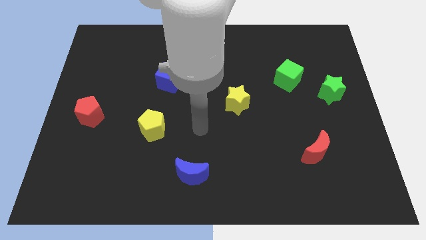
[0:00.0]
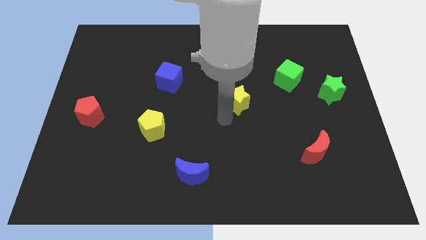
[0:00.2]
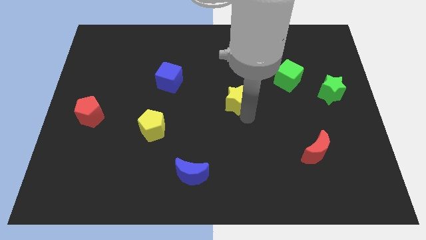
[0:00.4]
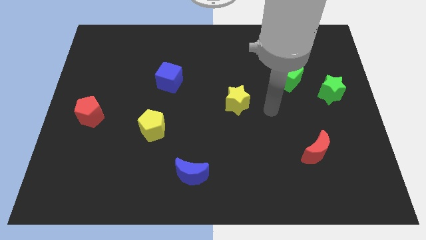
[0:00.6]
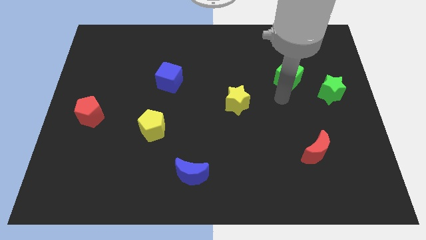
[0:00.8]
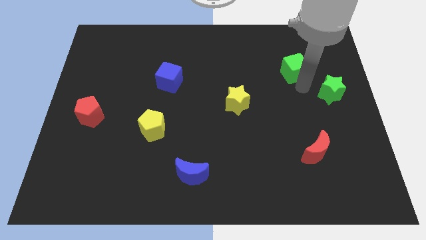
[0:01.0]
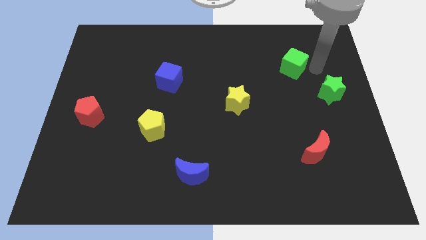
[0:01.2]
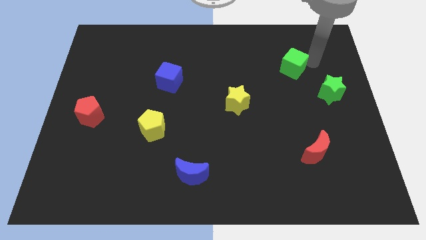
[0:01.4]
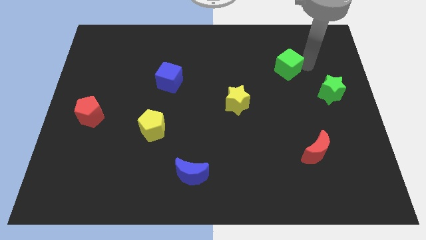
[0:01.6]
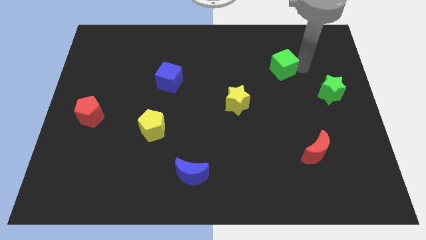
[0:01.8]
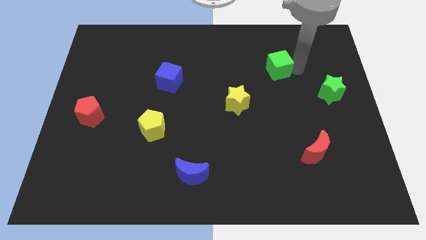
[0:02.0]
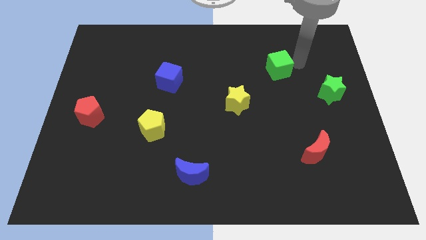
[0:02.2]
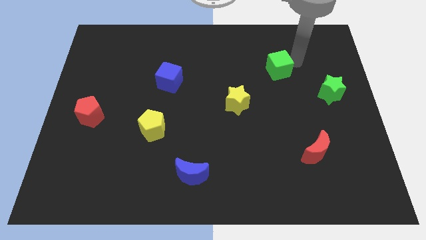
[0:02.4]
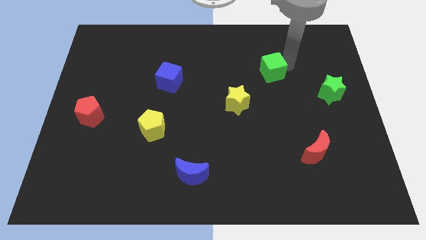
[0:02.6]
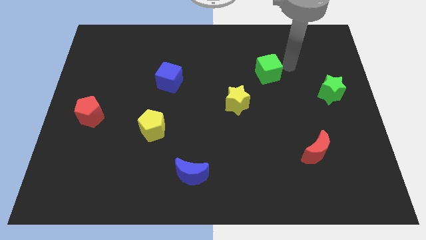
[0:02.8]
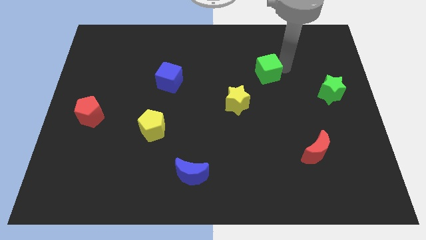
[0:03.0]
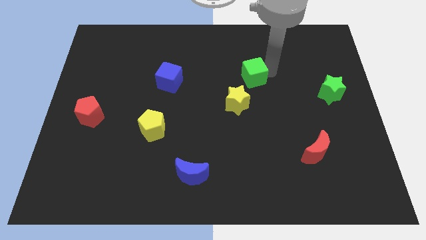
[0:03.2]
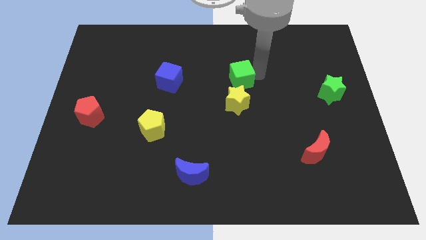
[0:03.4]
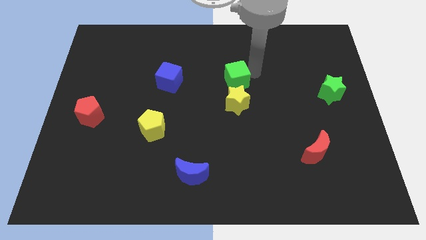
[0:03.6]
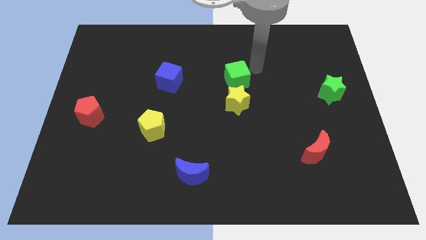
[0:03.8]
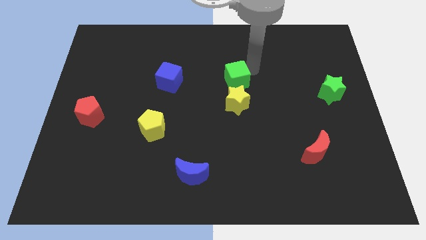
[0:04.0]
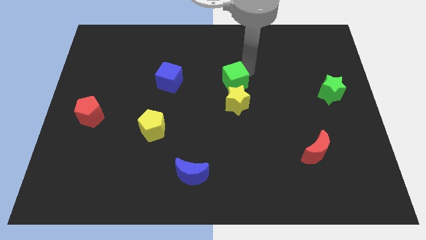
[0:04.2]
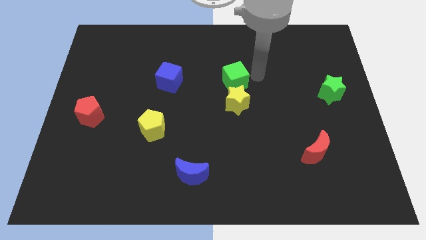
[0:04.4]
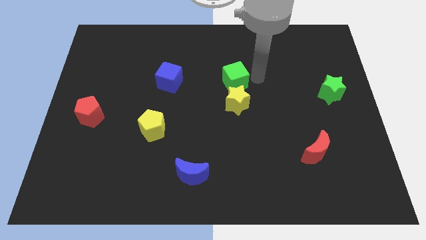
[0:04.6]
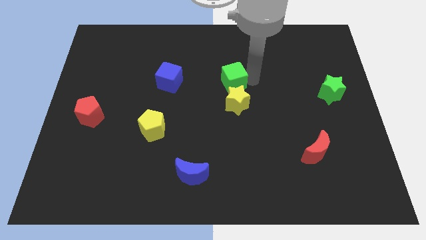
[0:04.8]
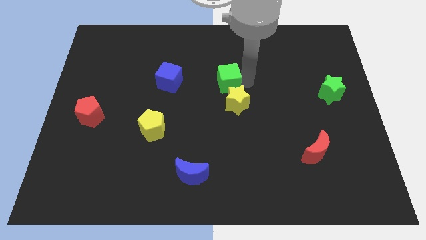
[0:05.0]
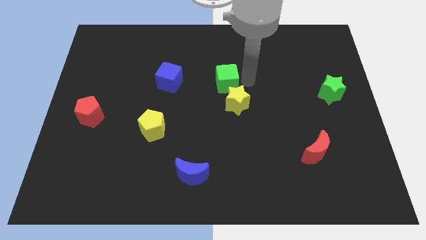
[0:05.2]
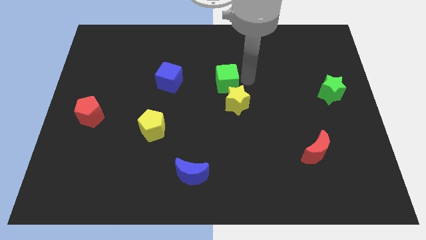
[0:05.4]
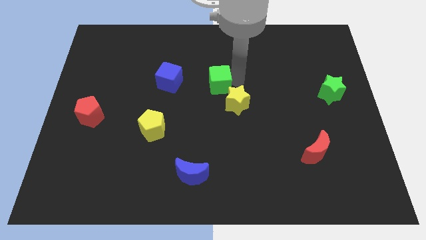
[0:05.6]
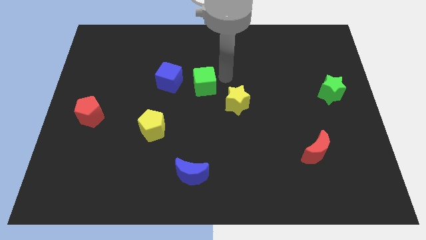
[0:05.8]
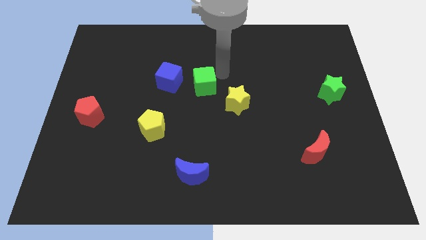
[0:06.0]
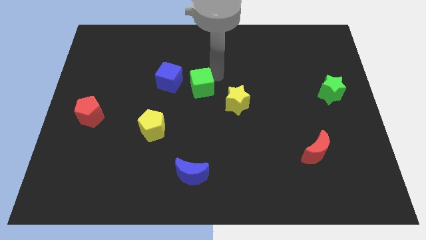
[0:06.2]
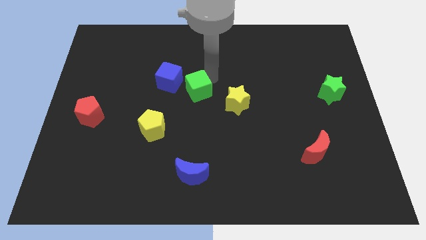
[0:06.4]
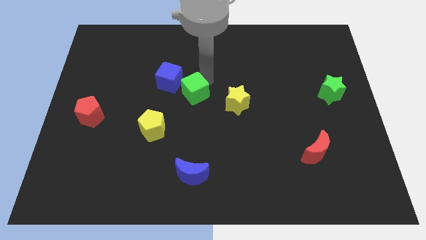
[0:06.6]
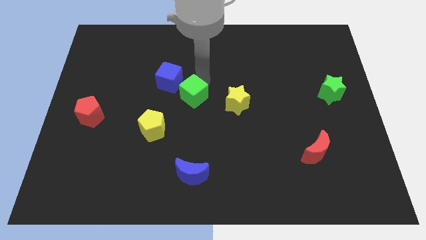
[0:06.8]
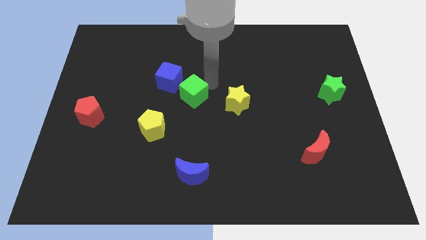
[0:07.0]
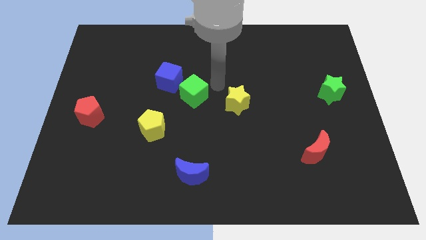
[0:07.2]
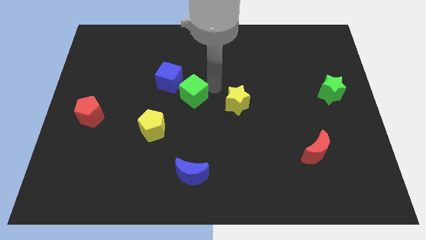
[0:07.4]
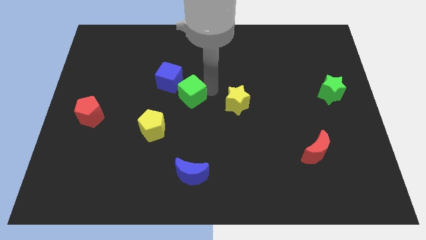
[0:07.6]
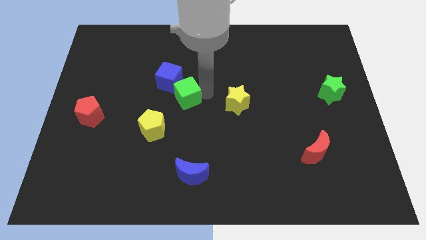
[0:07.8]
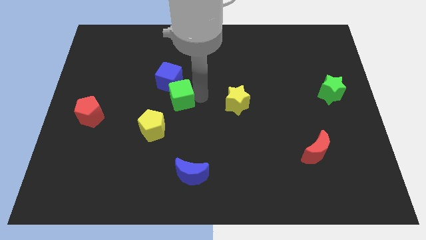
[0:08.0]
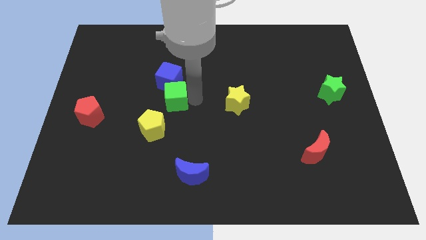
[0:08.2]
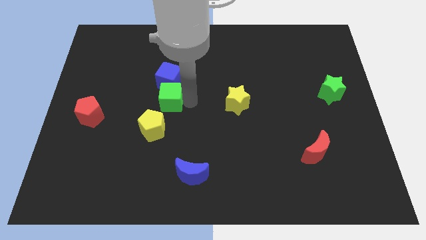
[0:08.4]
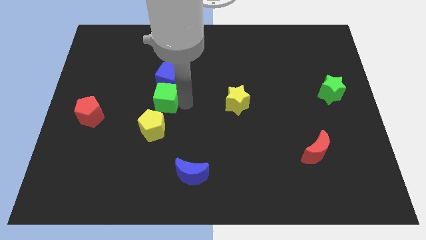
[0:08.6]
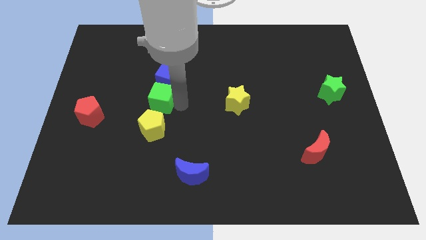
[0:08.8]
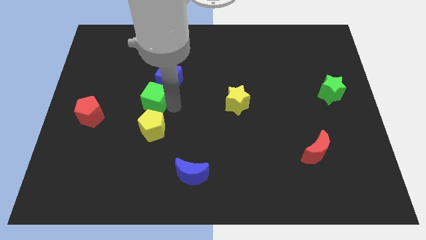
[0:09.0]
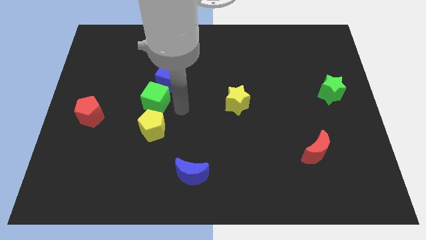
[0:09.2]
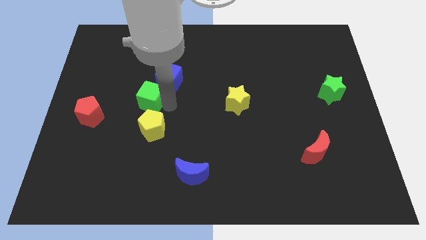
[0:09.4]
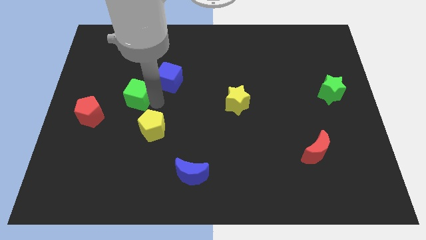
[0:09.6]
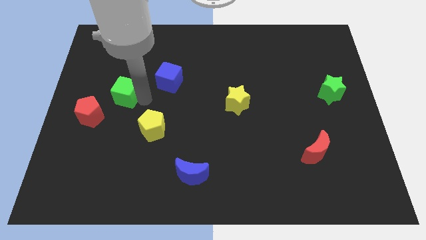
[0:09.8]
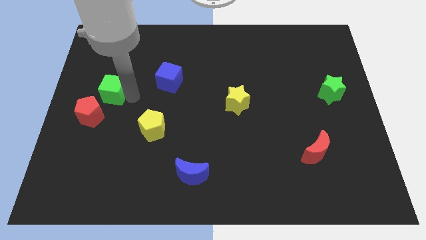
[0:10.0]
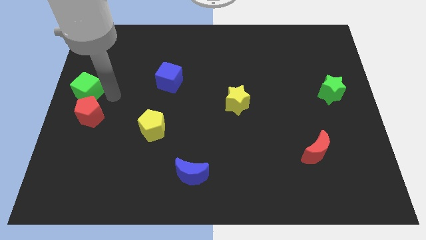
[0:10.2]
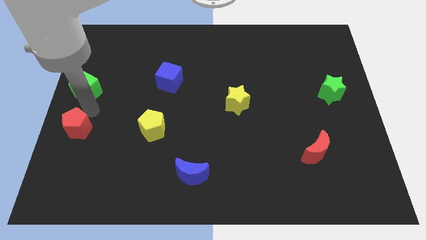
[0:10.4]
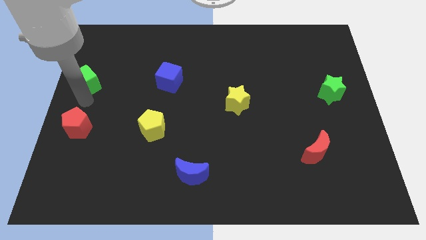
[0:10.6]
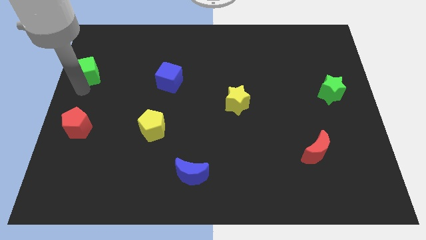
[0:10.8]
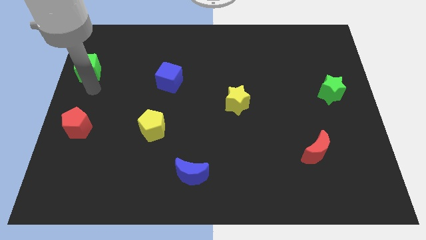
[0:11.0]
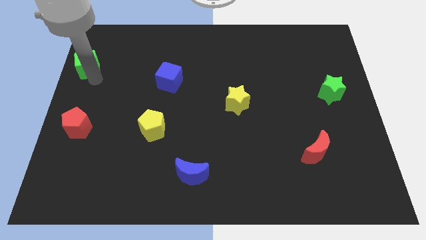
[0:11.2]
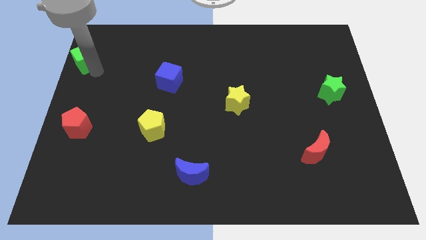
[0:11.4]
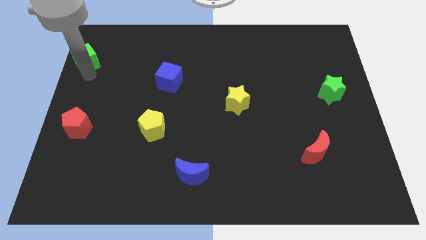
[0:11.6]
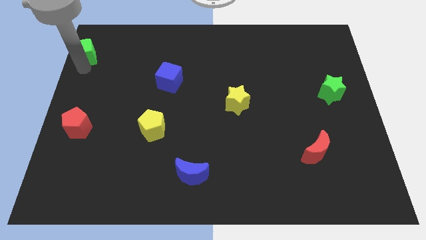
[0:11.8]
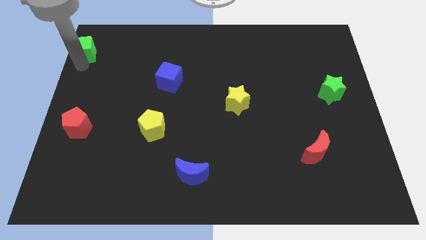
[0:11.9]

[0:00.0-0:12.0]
push the green cube to the top left corner

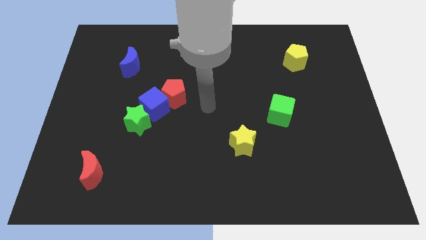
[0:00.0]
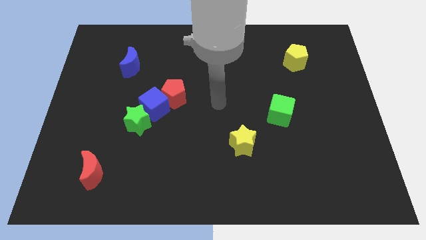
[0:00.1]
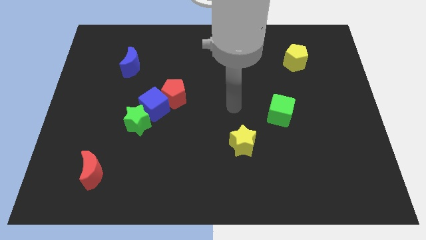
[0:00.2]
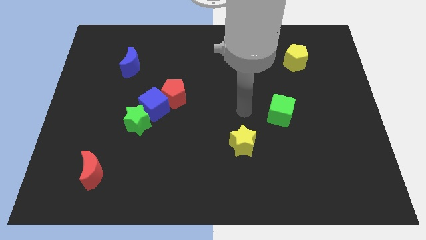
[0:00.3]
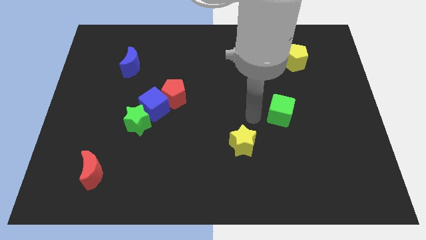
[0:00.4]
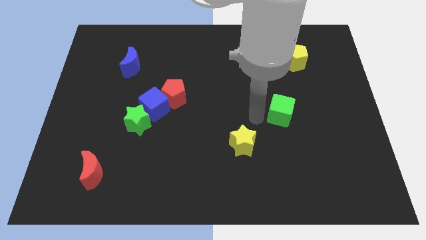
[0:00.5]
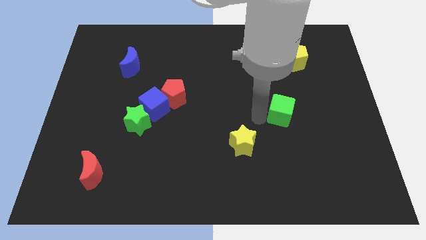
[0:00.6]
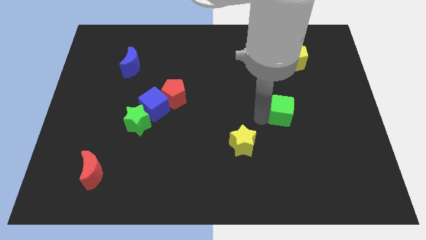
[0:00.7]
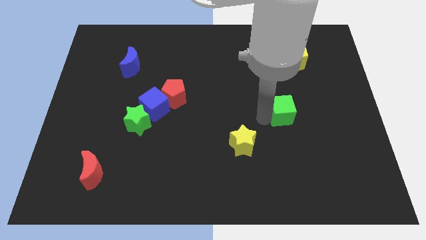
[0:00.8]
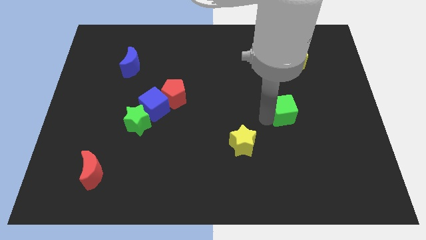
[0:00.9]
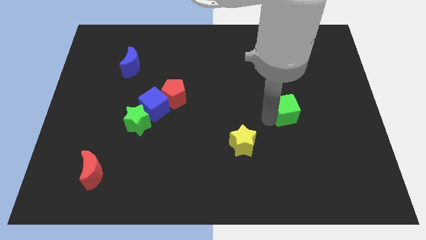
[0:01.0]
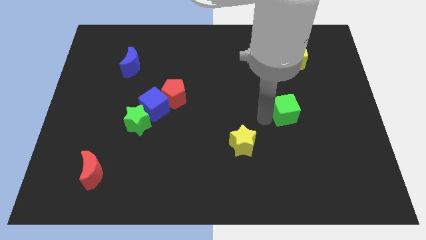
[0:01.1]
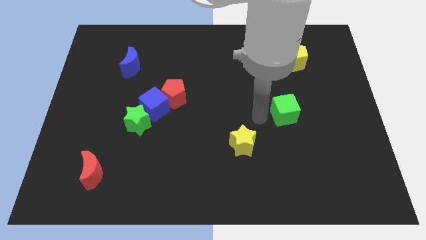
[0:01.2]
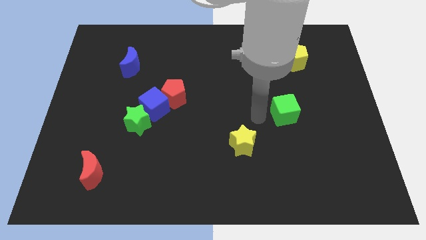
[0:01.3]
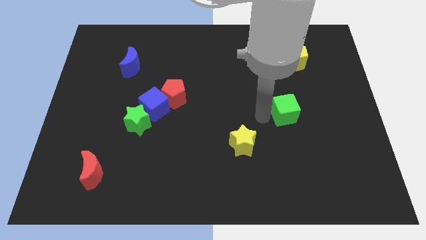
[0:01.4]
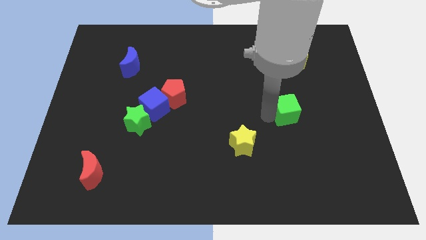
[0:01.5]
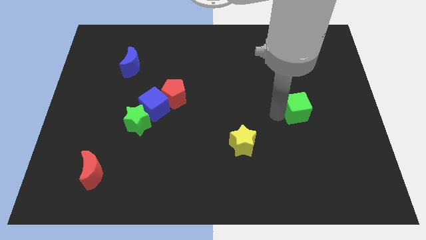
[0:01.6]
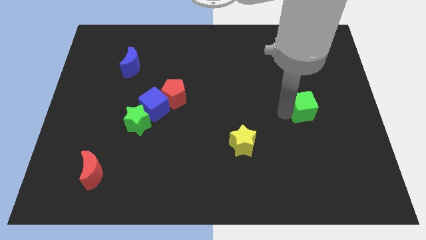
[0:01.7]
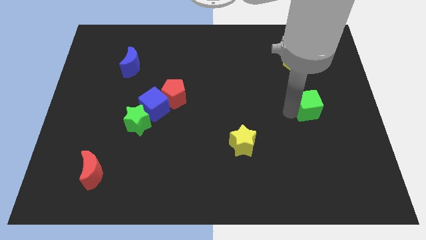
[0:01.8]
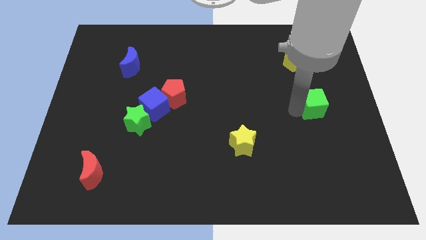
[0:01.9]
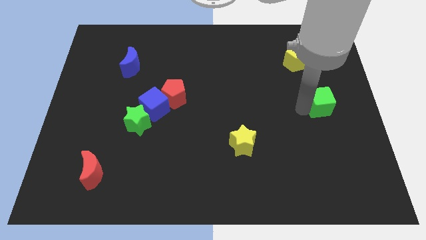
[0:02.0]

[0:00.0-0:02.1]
slide the green cube to the right side of the board
